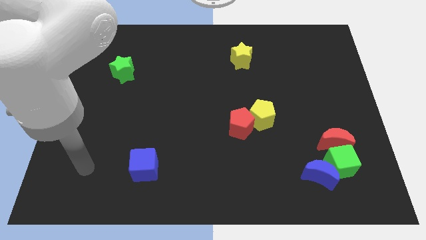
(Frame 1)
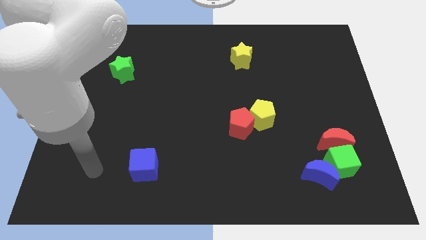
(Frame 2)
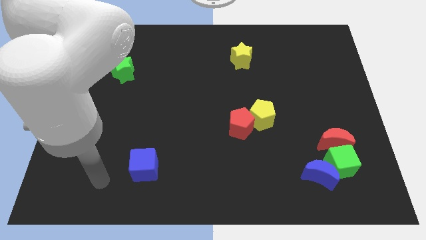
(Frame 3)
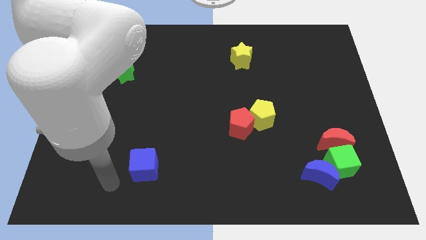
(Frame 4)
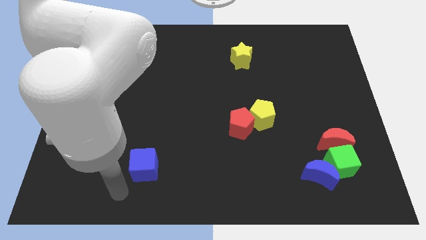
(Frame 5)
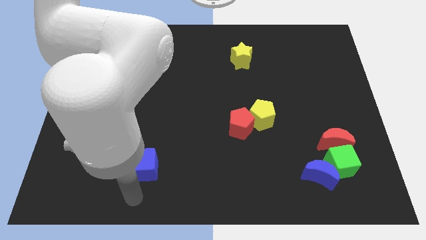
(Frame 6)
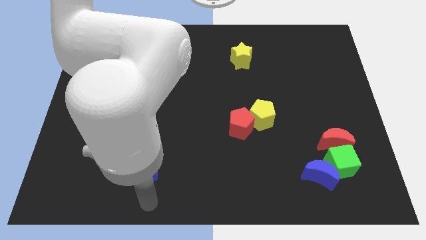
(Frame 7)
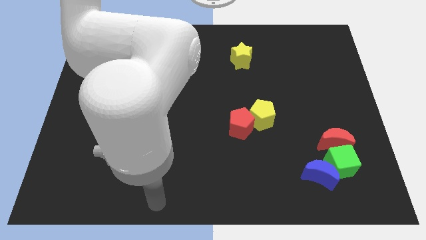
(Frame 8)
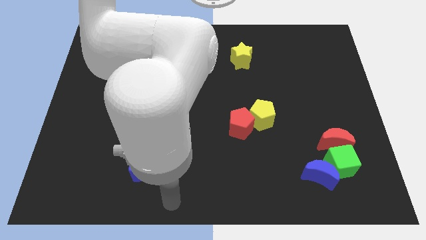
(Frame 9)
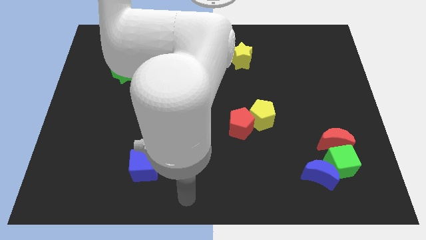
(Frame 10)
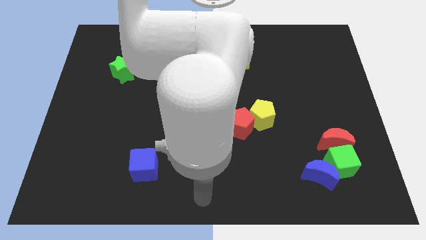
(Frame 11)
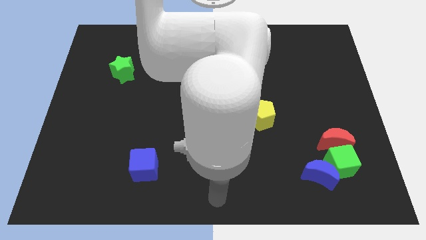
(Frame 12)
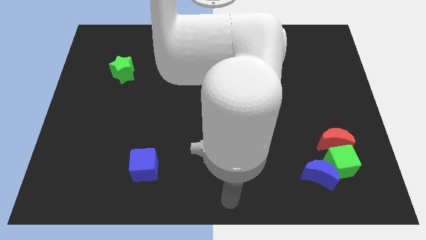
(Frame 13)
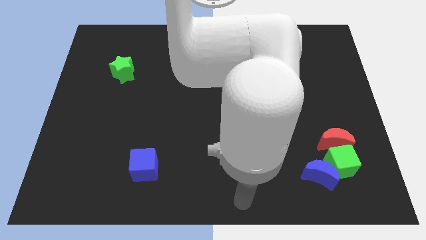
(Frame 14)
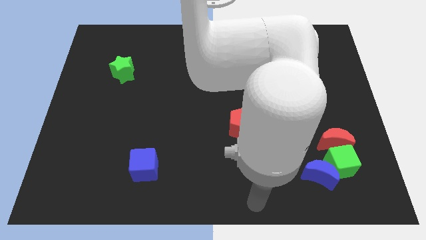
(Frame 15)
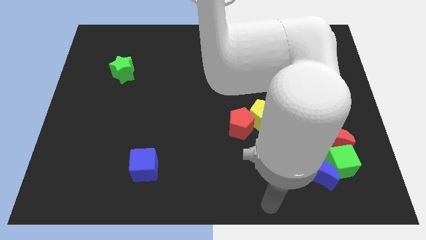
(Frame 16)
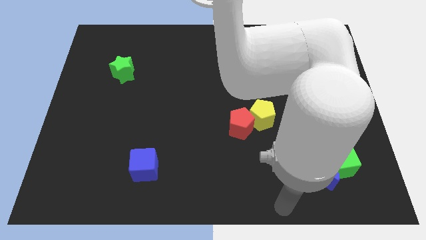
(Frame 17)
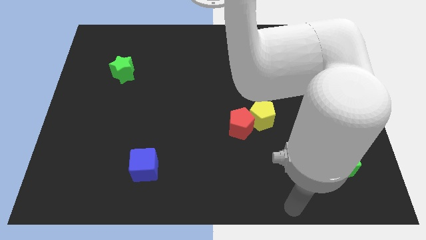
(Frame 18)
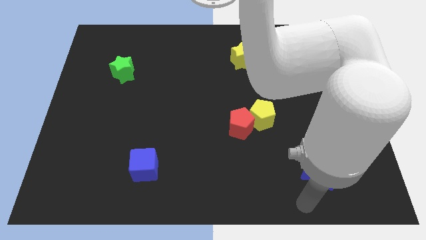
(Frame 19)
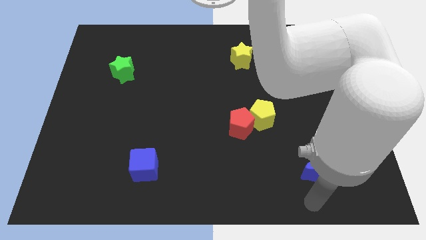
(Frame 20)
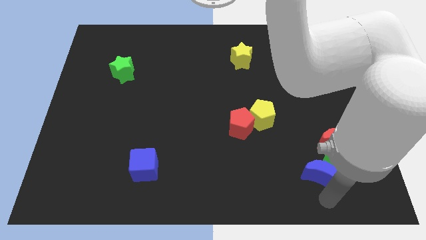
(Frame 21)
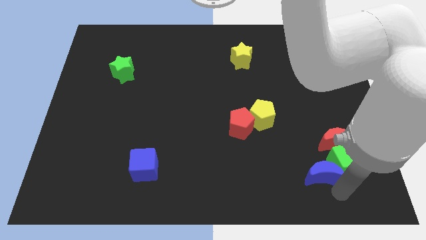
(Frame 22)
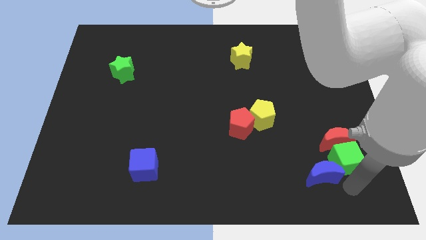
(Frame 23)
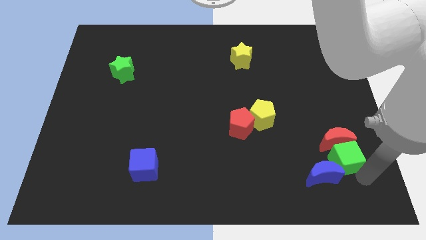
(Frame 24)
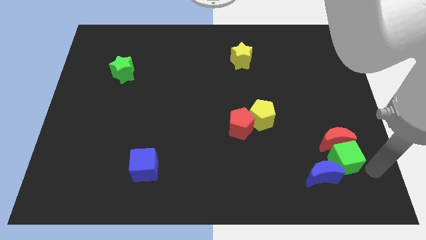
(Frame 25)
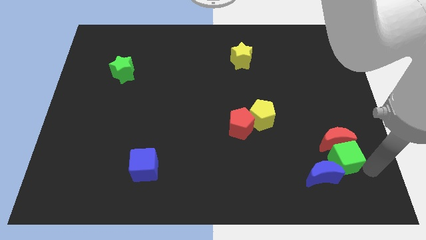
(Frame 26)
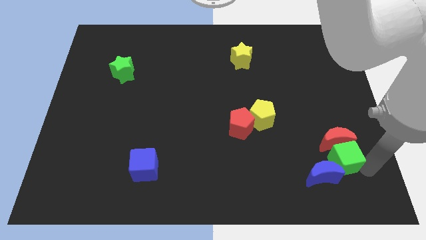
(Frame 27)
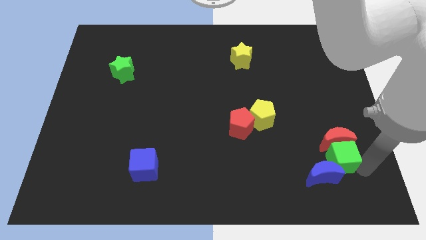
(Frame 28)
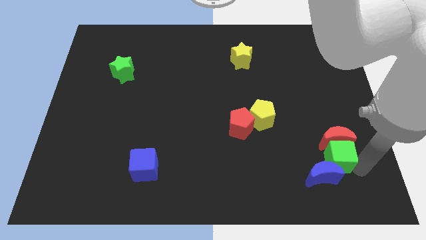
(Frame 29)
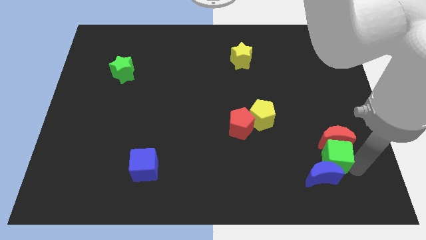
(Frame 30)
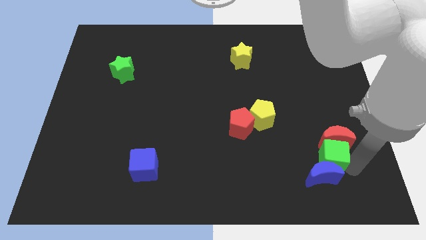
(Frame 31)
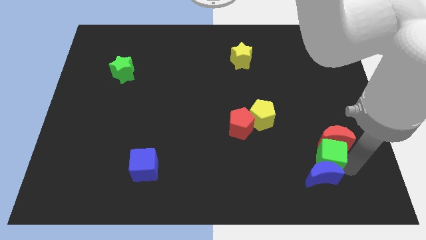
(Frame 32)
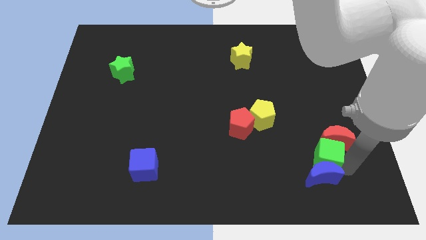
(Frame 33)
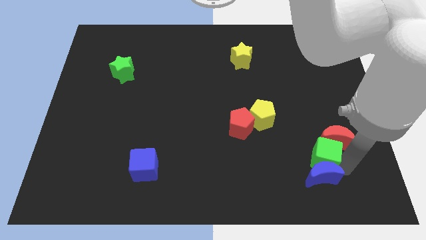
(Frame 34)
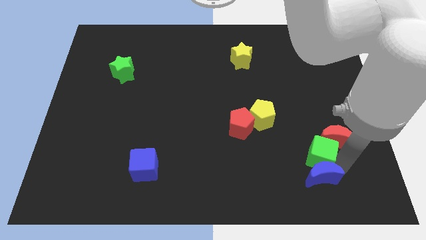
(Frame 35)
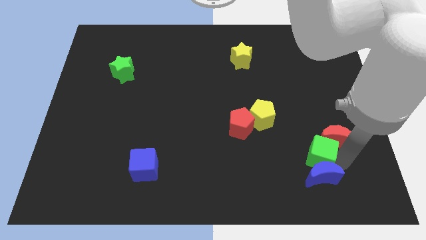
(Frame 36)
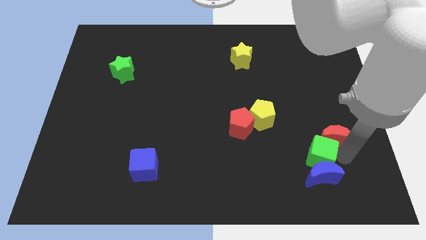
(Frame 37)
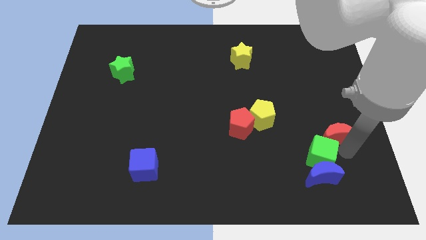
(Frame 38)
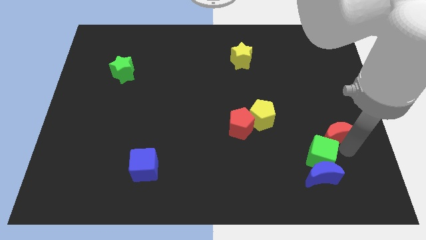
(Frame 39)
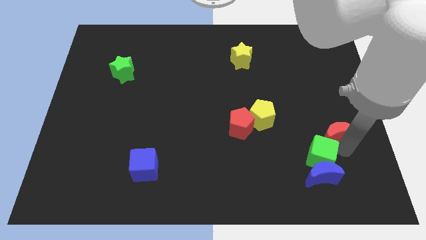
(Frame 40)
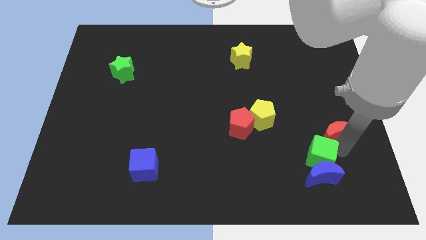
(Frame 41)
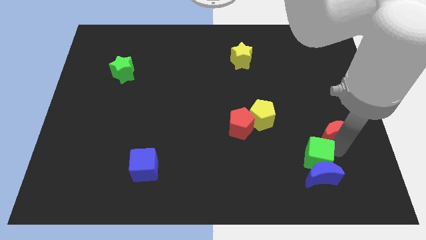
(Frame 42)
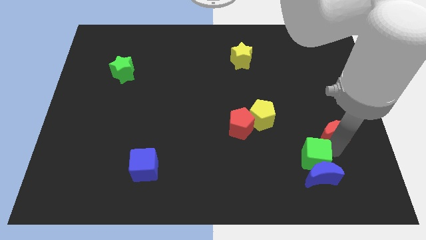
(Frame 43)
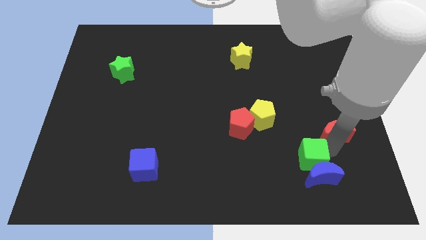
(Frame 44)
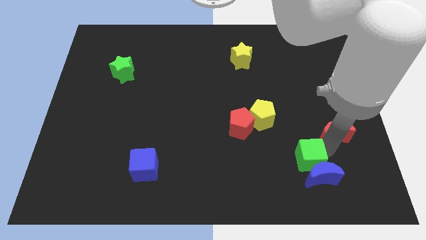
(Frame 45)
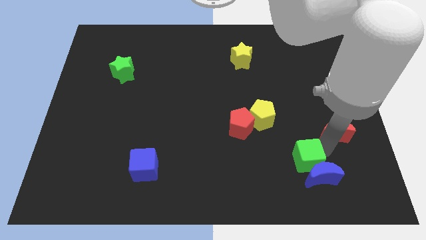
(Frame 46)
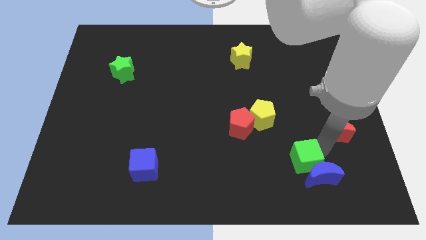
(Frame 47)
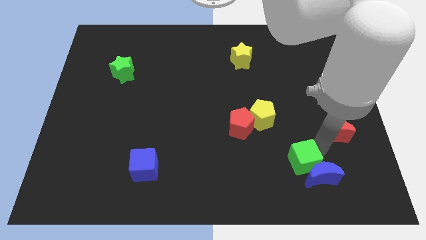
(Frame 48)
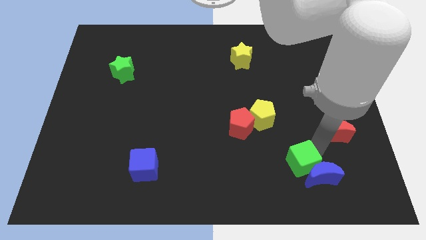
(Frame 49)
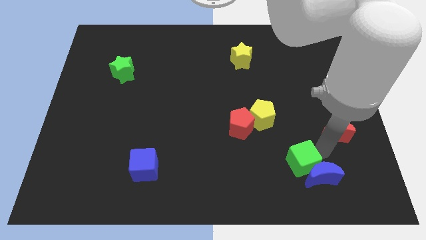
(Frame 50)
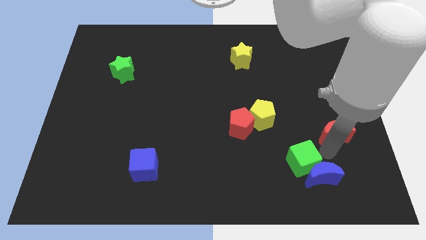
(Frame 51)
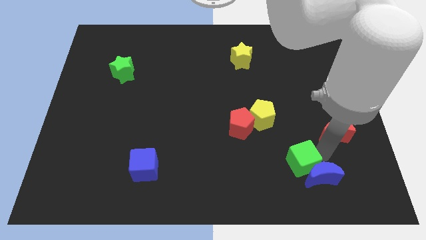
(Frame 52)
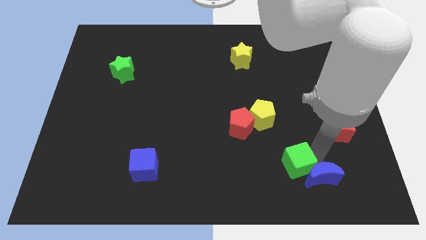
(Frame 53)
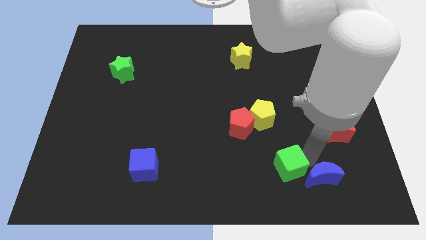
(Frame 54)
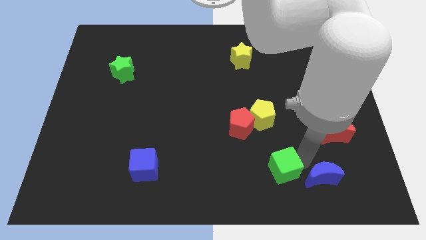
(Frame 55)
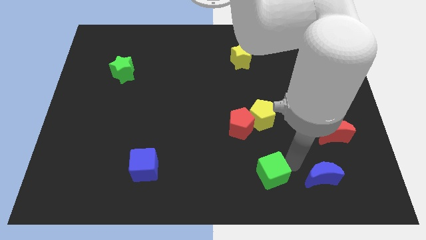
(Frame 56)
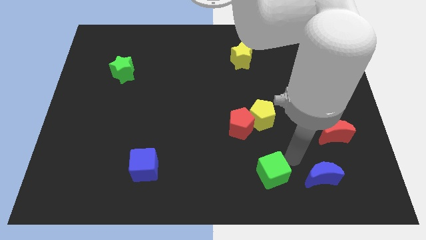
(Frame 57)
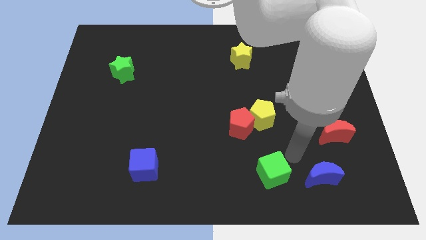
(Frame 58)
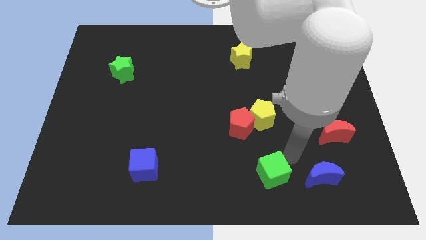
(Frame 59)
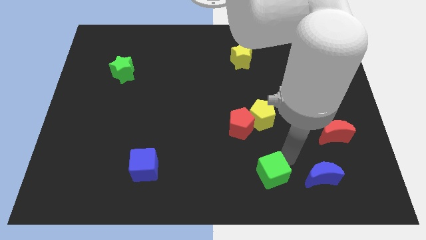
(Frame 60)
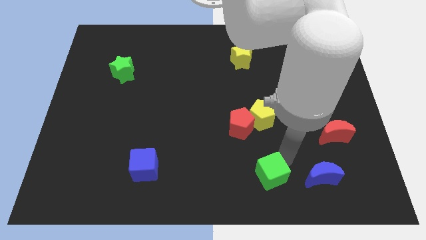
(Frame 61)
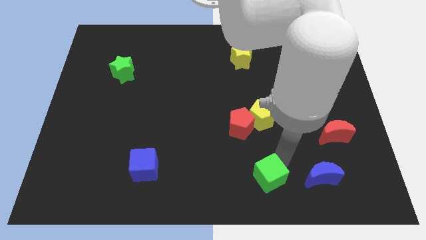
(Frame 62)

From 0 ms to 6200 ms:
move the green cube to the bottom
